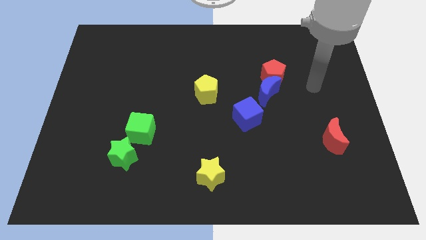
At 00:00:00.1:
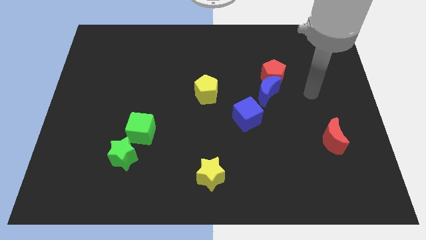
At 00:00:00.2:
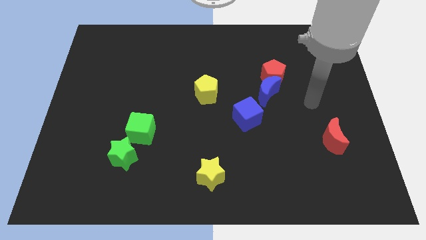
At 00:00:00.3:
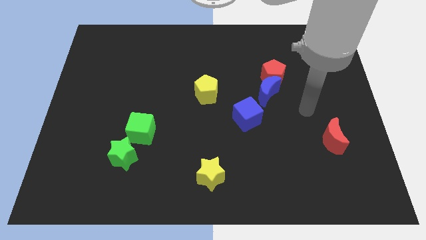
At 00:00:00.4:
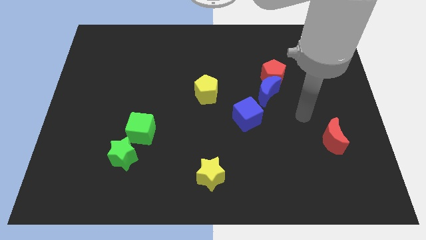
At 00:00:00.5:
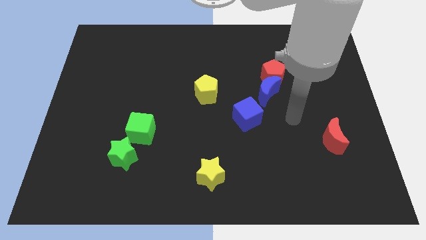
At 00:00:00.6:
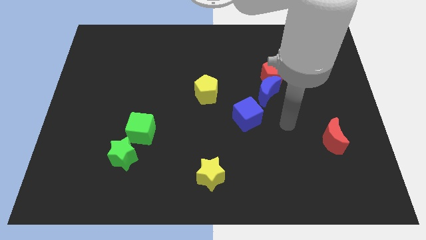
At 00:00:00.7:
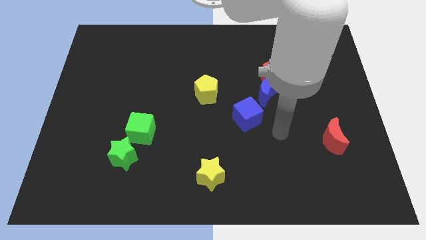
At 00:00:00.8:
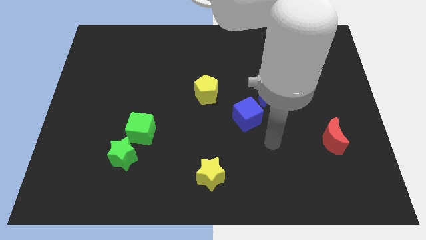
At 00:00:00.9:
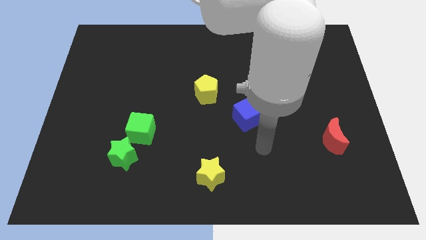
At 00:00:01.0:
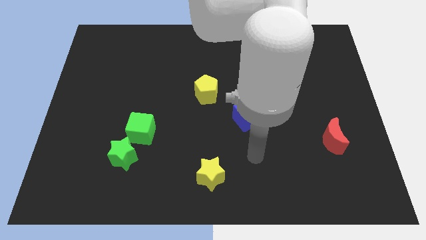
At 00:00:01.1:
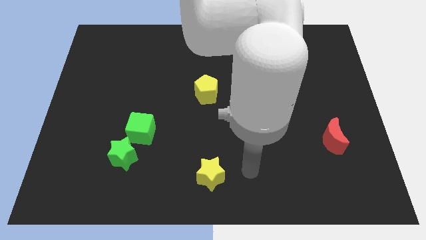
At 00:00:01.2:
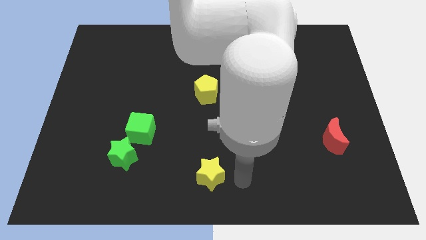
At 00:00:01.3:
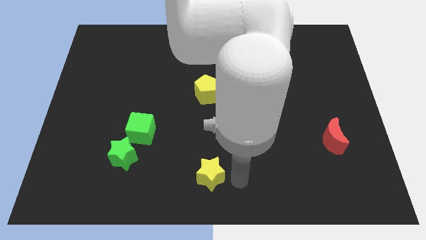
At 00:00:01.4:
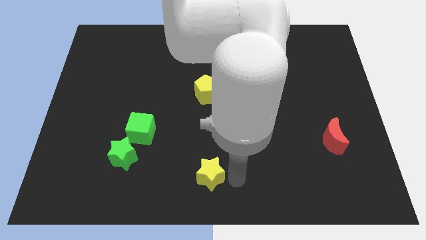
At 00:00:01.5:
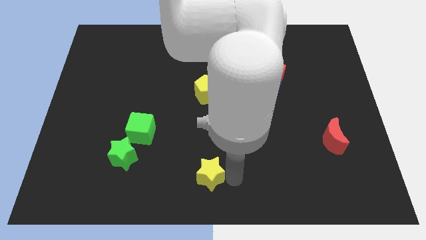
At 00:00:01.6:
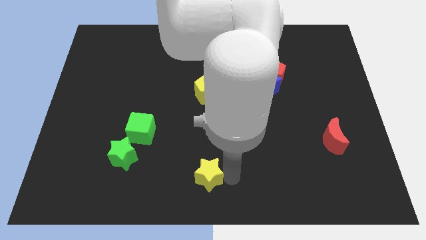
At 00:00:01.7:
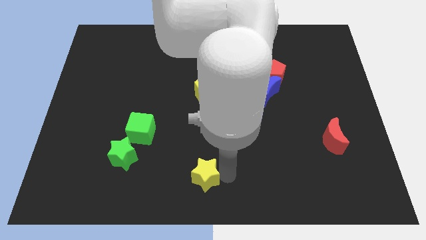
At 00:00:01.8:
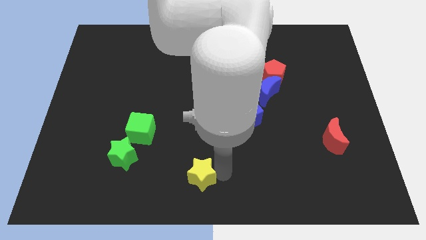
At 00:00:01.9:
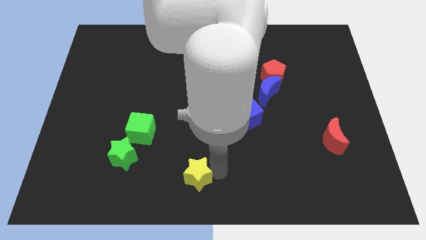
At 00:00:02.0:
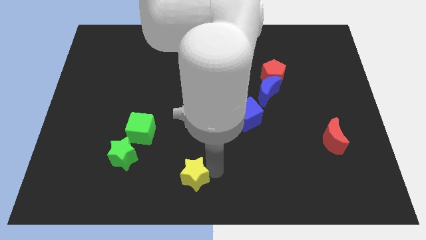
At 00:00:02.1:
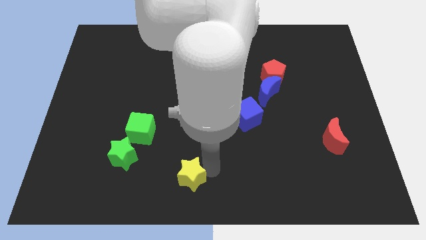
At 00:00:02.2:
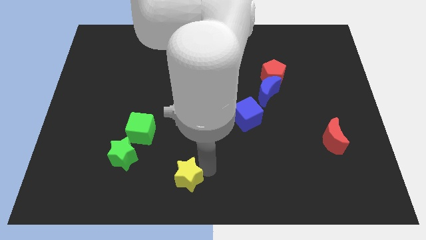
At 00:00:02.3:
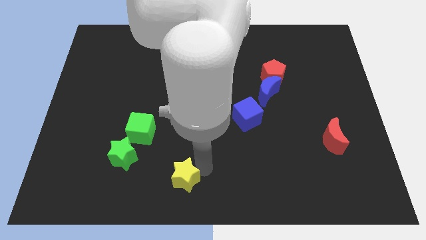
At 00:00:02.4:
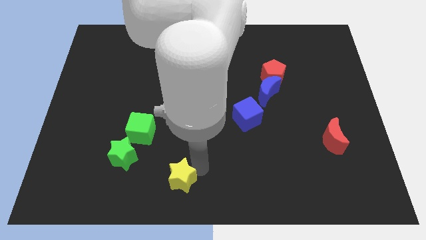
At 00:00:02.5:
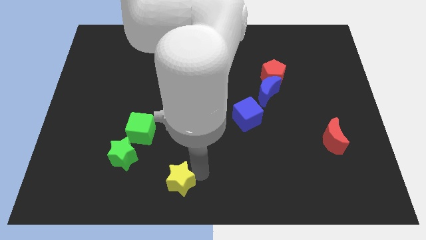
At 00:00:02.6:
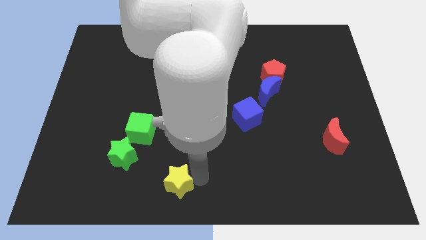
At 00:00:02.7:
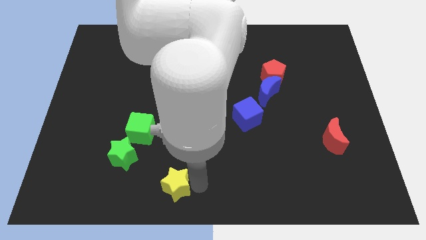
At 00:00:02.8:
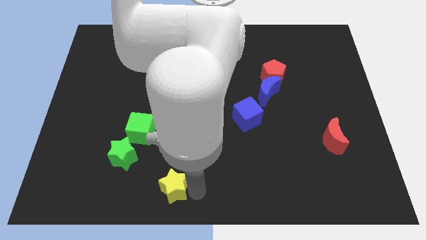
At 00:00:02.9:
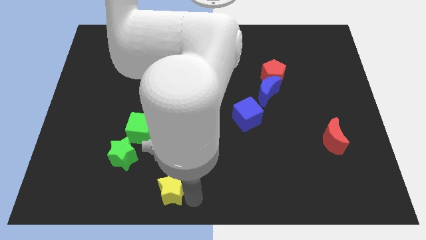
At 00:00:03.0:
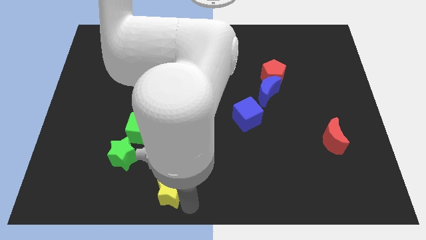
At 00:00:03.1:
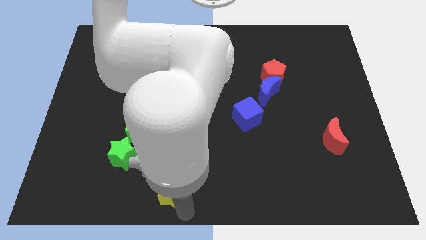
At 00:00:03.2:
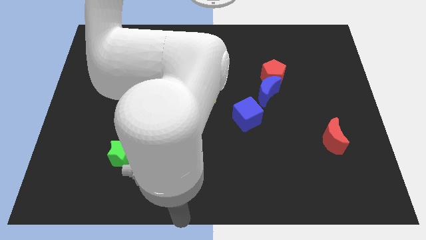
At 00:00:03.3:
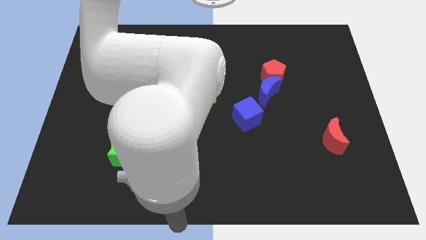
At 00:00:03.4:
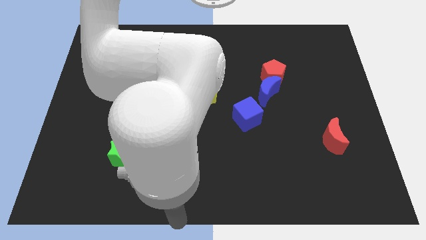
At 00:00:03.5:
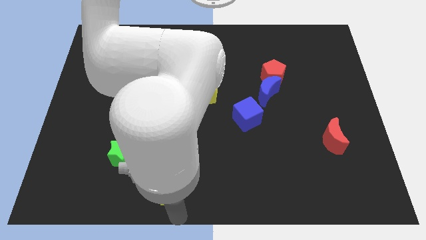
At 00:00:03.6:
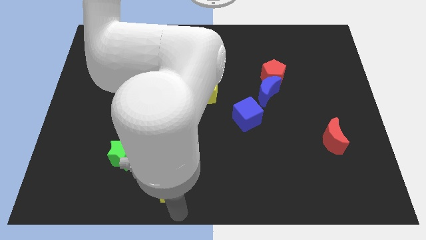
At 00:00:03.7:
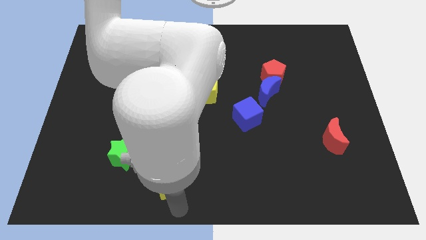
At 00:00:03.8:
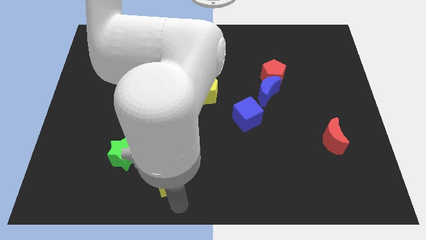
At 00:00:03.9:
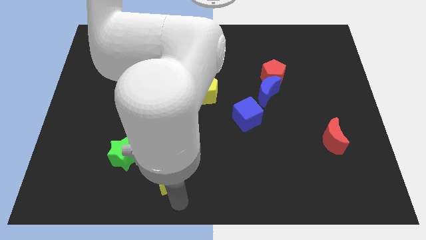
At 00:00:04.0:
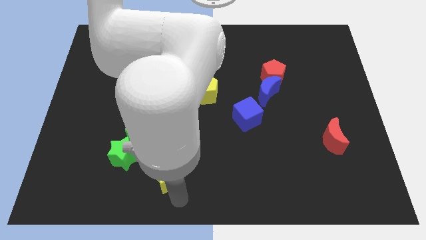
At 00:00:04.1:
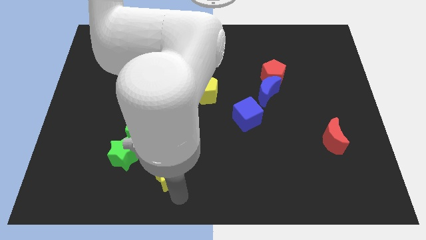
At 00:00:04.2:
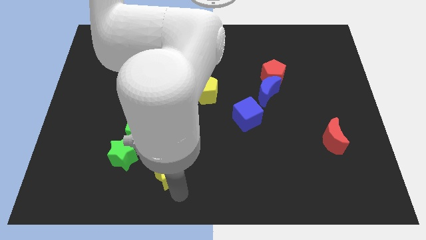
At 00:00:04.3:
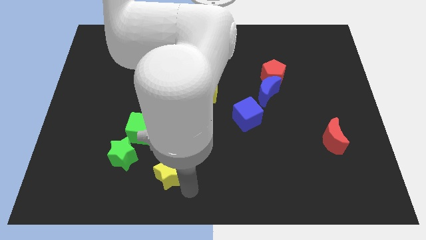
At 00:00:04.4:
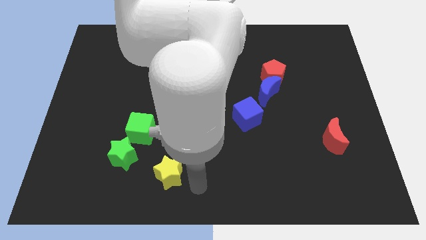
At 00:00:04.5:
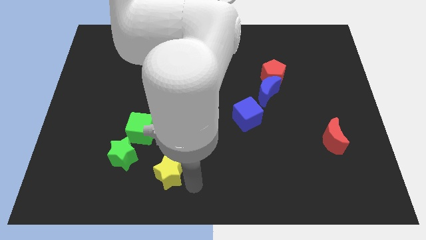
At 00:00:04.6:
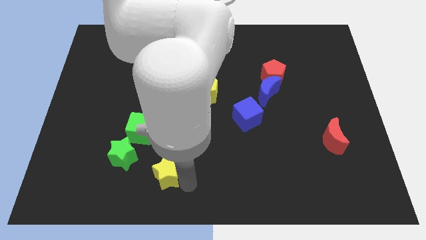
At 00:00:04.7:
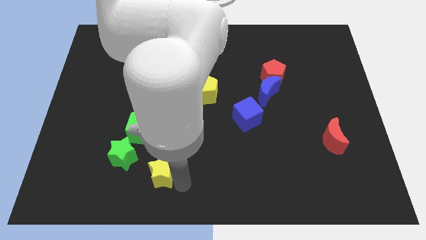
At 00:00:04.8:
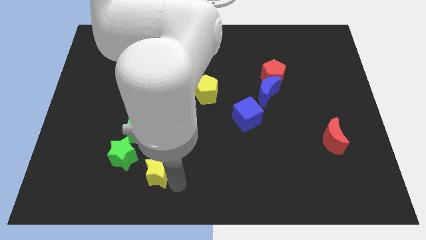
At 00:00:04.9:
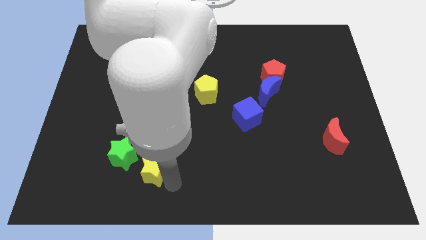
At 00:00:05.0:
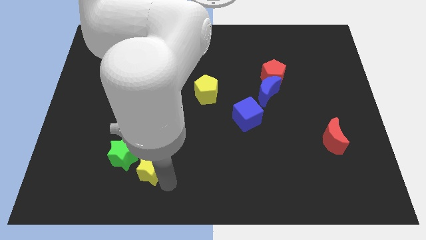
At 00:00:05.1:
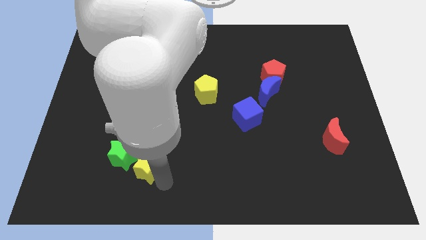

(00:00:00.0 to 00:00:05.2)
move the yellow star next to the green star

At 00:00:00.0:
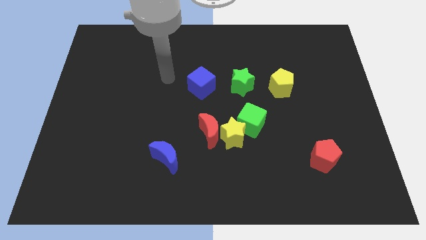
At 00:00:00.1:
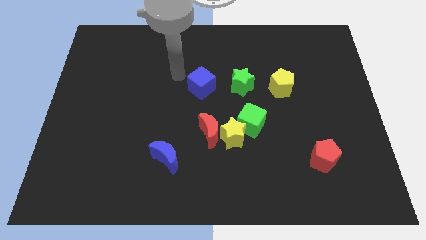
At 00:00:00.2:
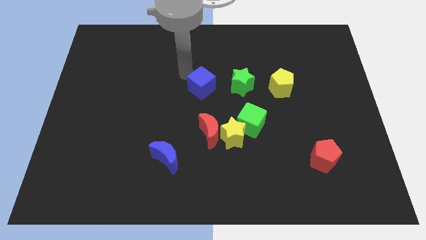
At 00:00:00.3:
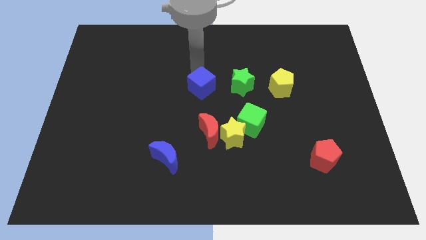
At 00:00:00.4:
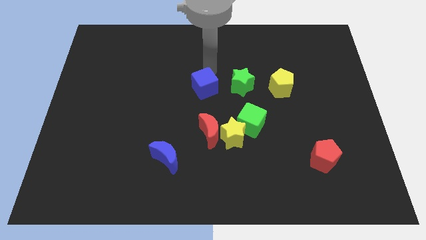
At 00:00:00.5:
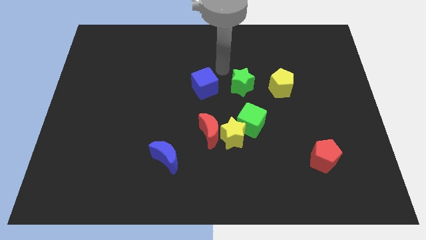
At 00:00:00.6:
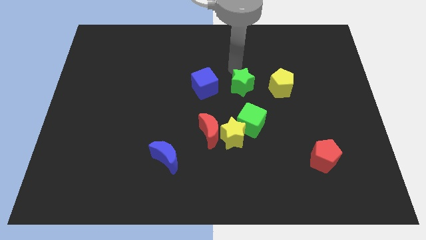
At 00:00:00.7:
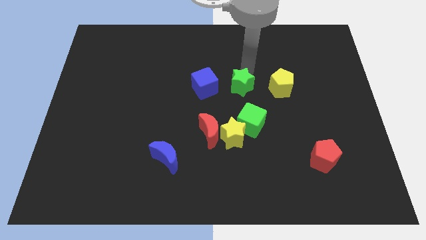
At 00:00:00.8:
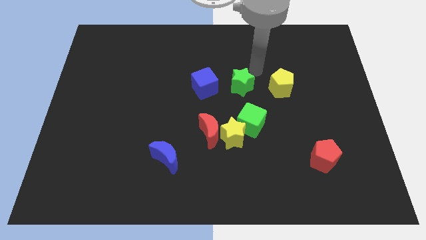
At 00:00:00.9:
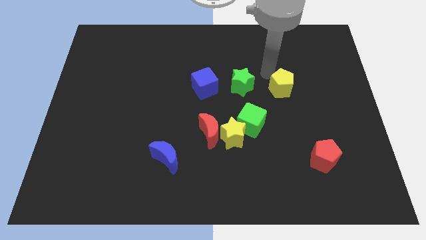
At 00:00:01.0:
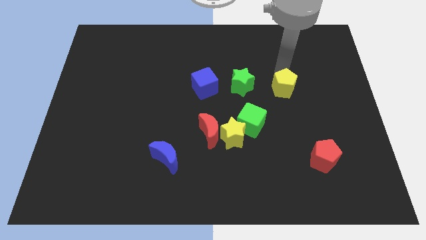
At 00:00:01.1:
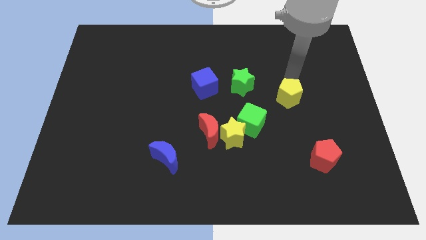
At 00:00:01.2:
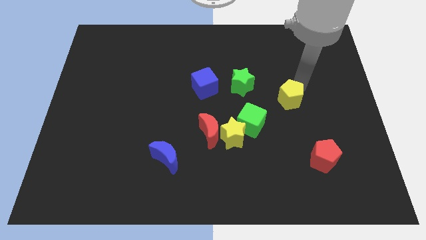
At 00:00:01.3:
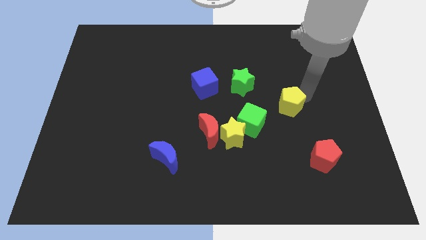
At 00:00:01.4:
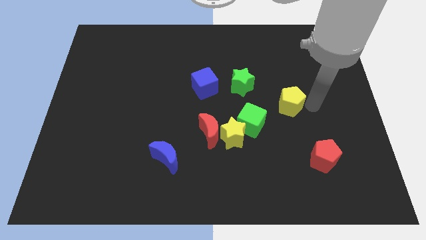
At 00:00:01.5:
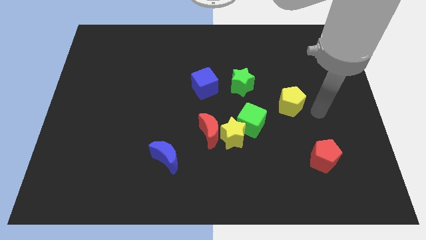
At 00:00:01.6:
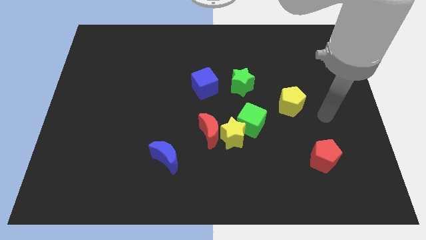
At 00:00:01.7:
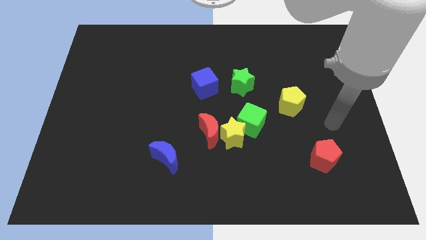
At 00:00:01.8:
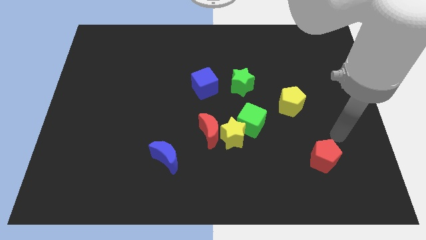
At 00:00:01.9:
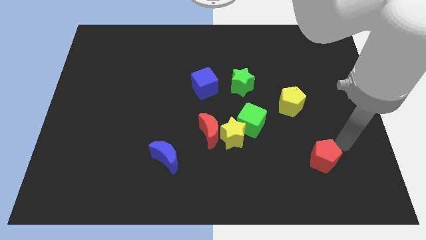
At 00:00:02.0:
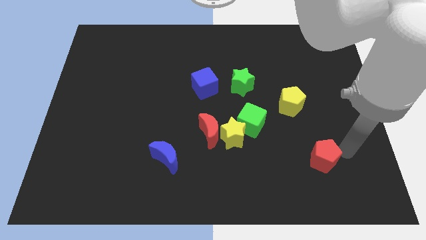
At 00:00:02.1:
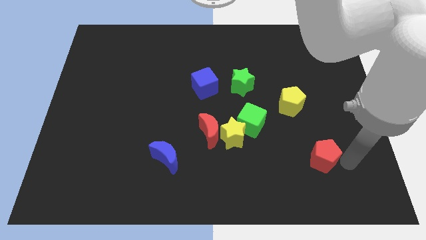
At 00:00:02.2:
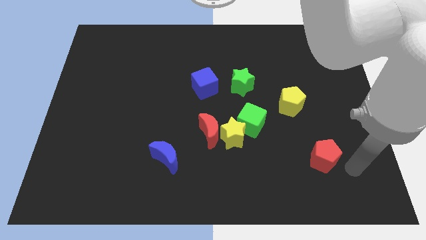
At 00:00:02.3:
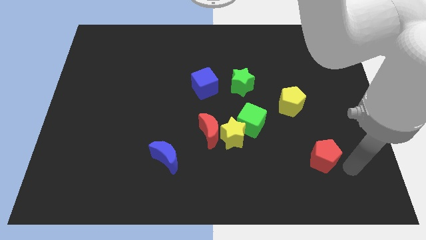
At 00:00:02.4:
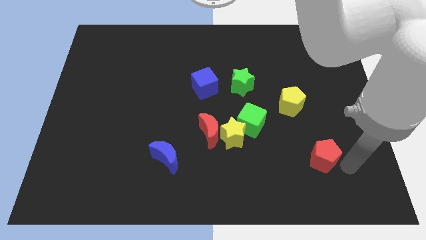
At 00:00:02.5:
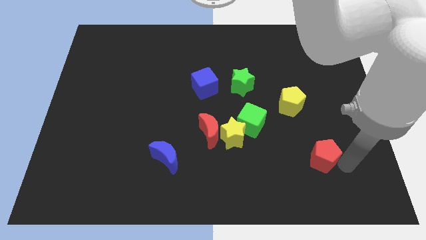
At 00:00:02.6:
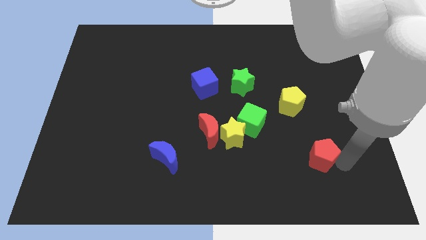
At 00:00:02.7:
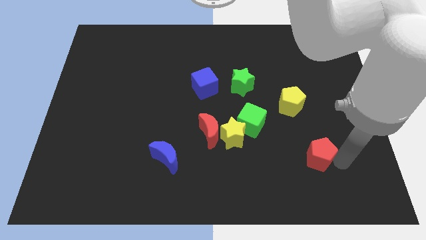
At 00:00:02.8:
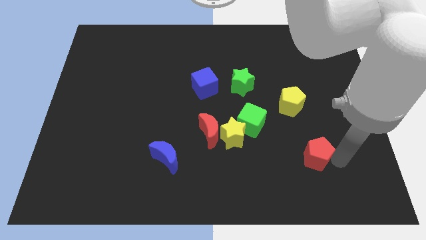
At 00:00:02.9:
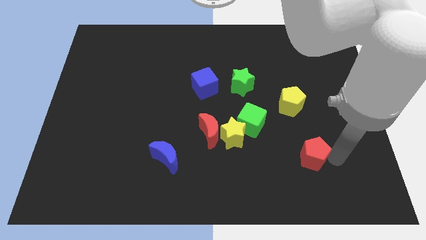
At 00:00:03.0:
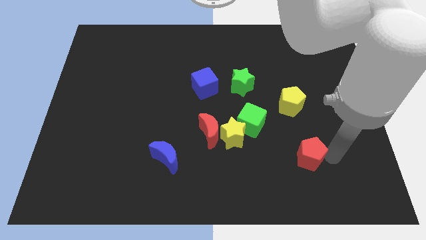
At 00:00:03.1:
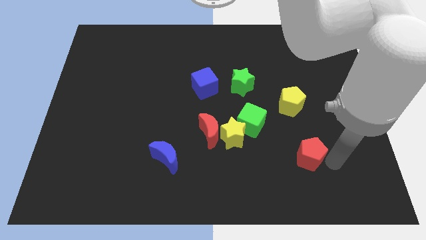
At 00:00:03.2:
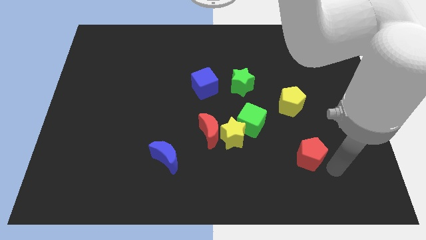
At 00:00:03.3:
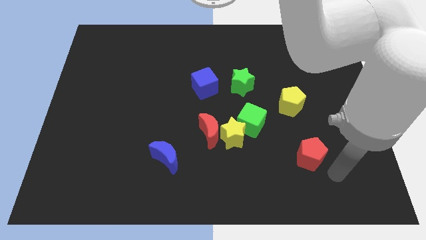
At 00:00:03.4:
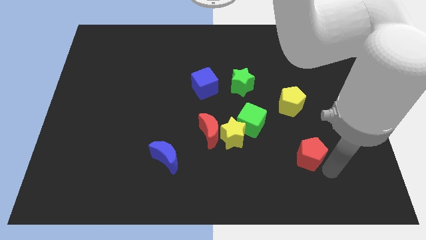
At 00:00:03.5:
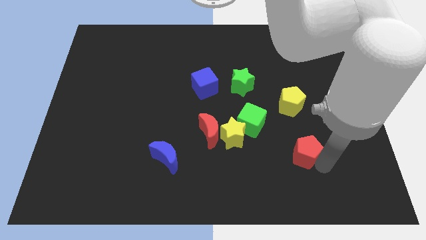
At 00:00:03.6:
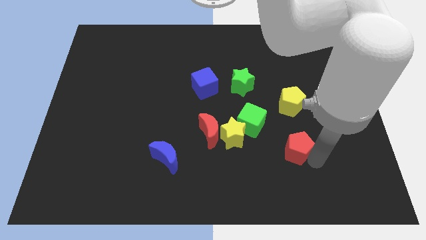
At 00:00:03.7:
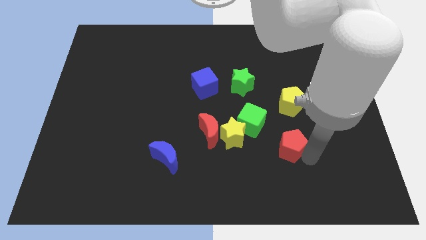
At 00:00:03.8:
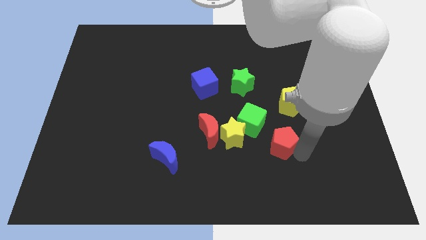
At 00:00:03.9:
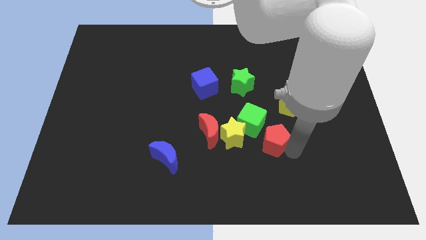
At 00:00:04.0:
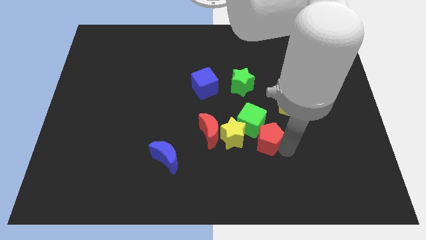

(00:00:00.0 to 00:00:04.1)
push the red pentagon to the green cube
